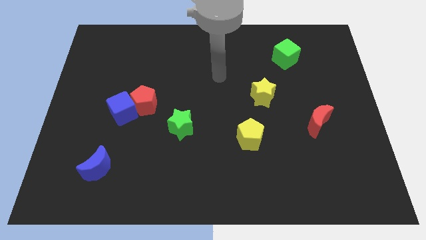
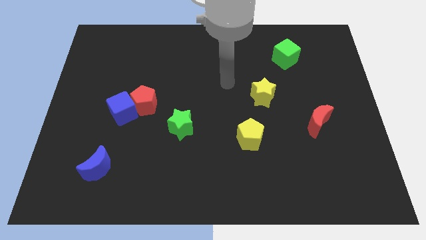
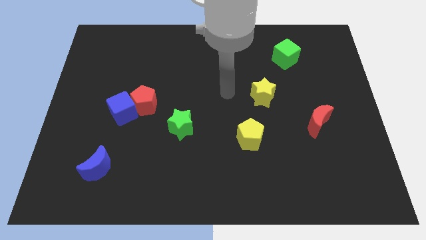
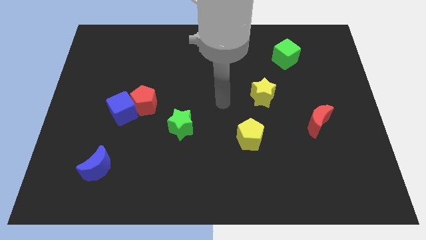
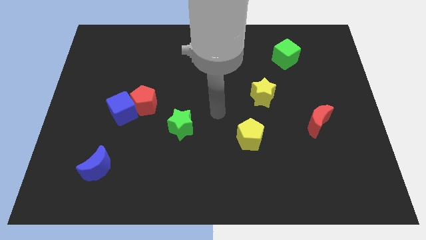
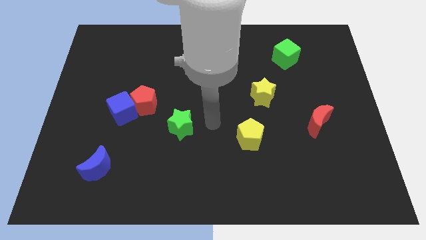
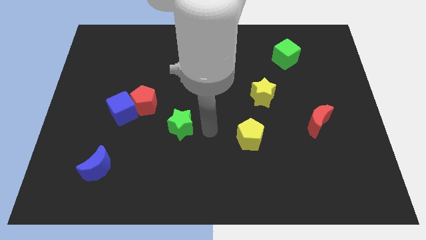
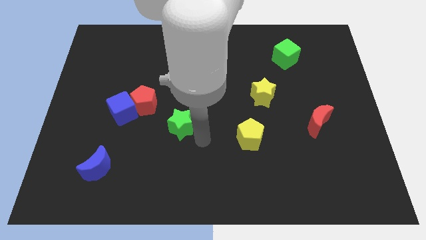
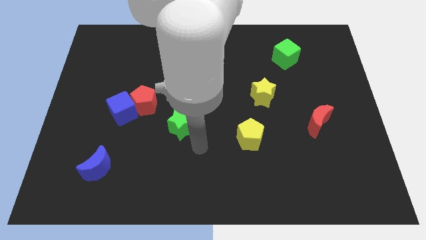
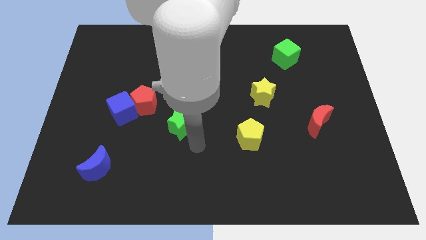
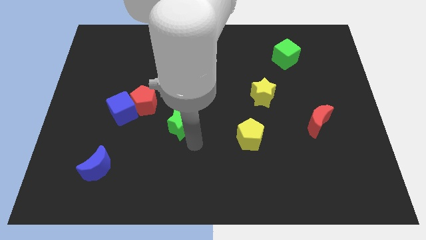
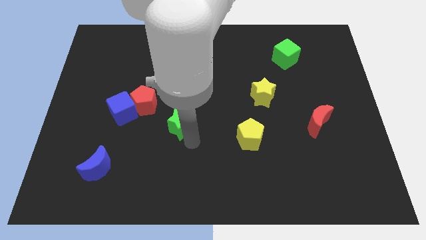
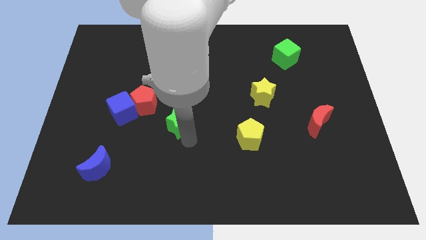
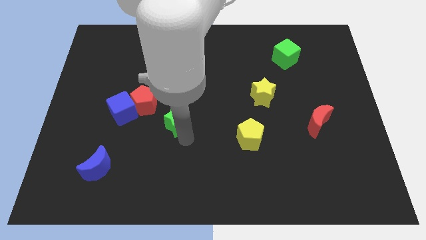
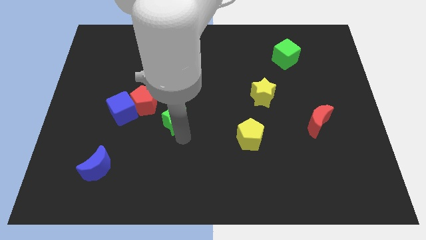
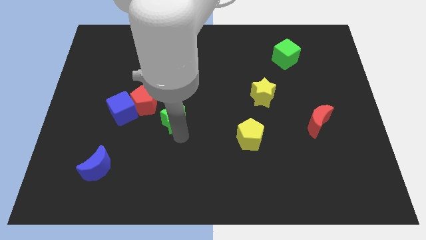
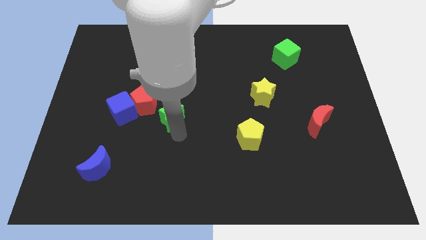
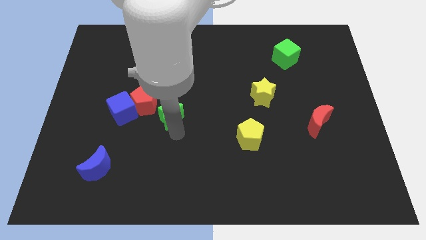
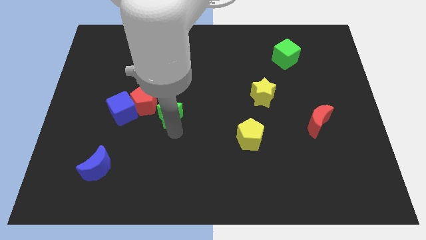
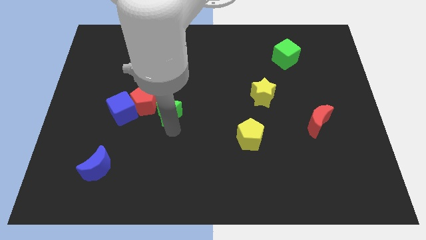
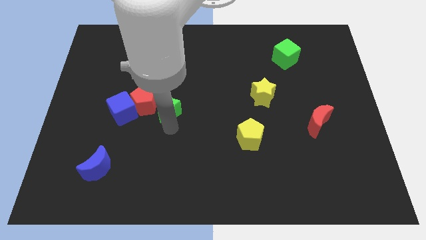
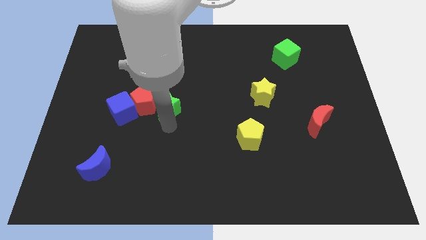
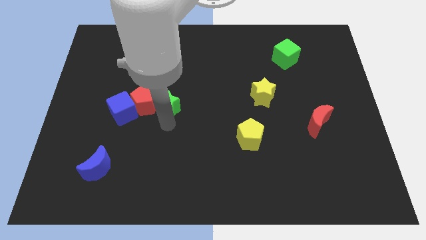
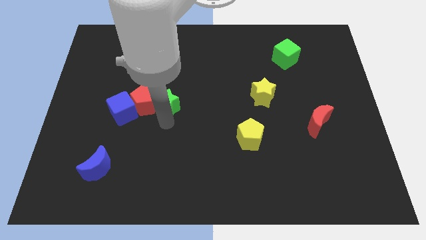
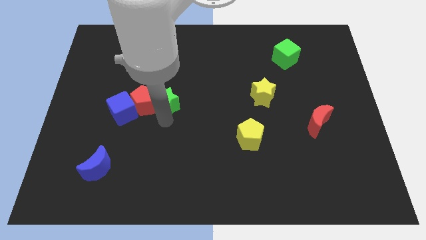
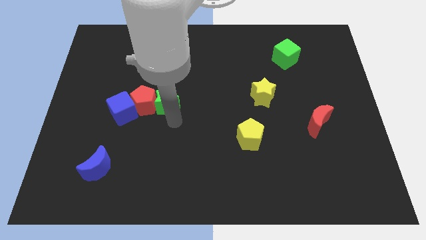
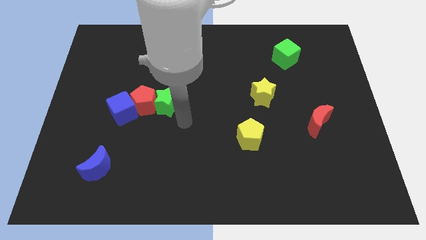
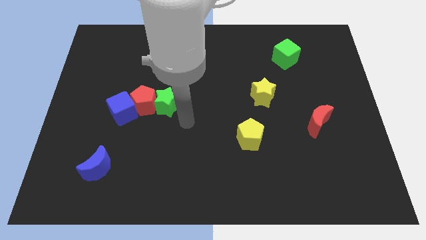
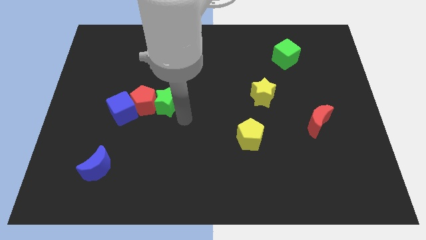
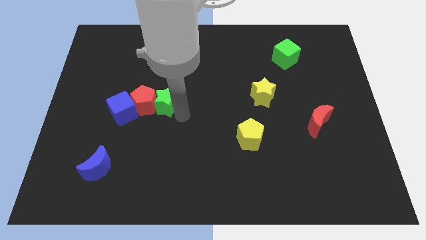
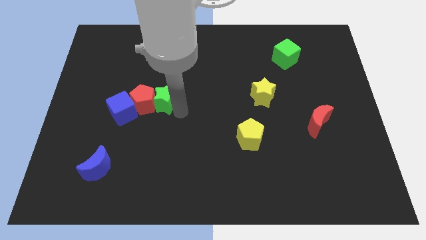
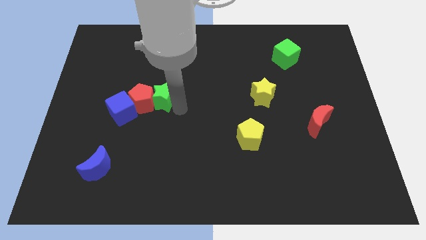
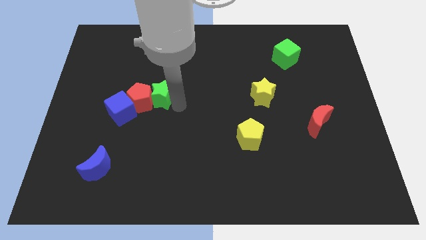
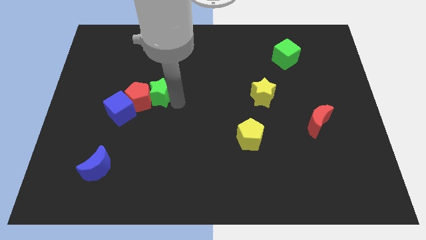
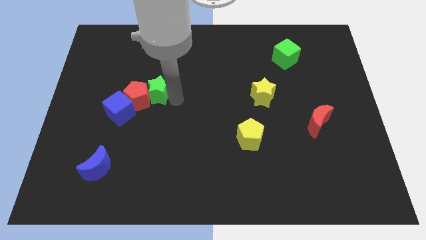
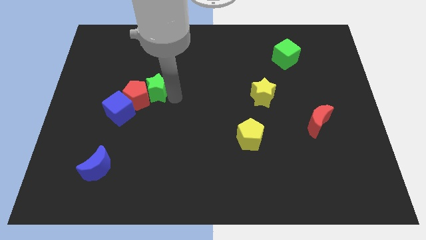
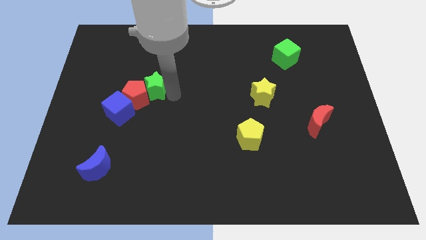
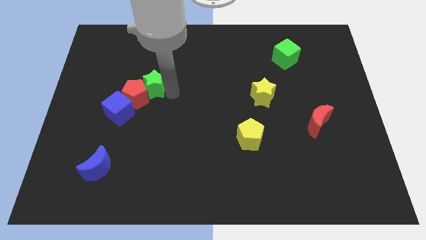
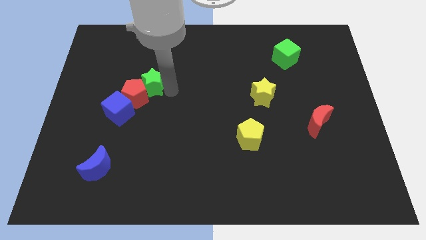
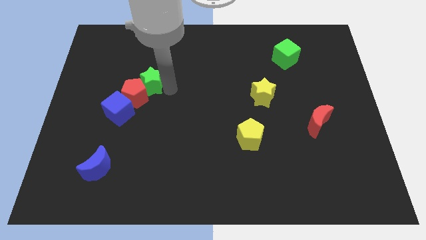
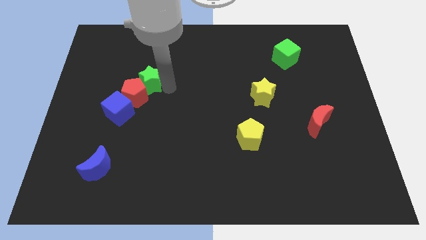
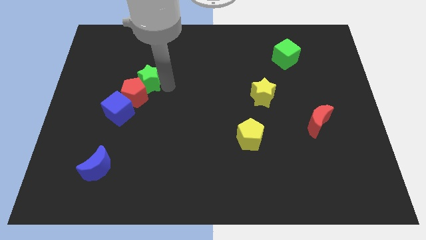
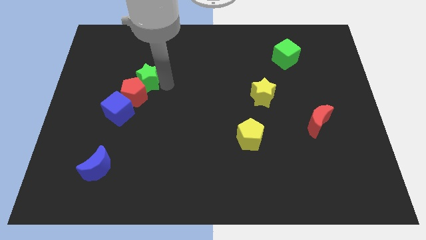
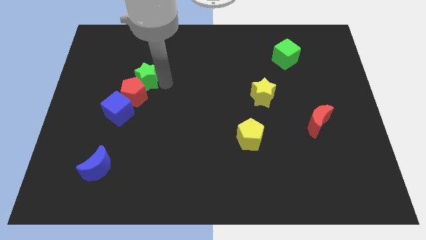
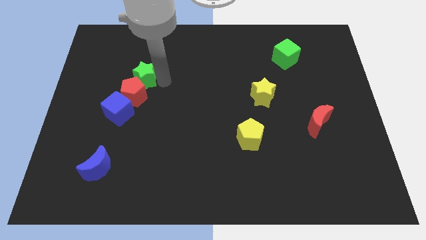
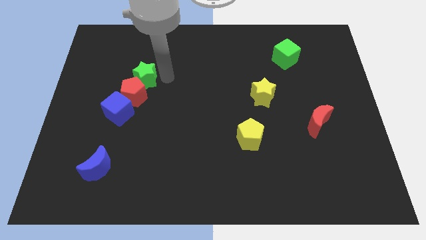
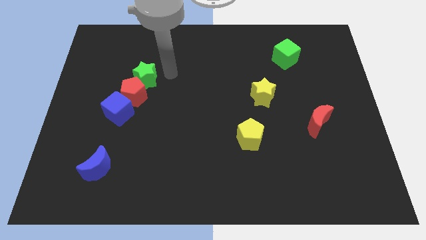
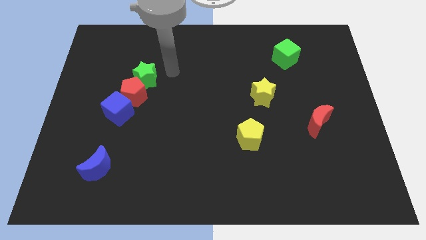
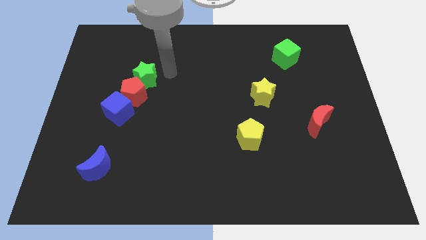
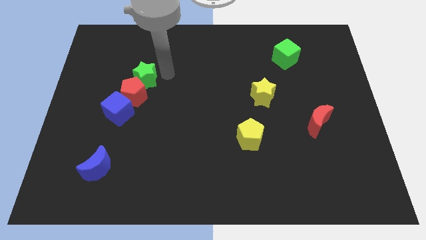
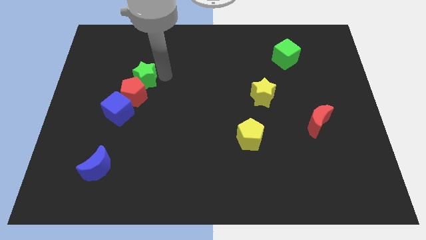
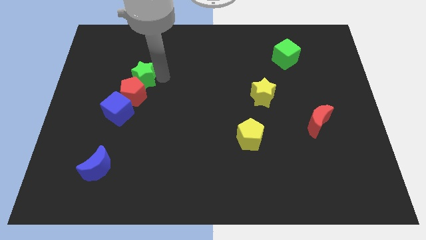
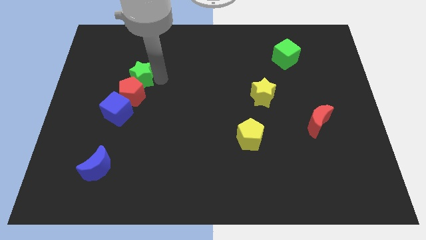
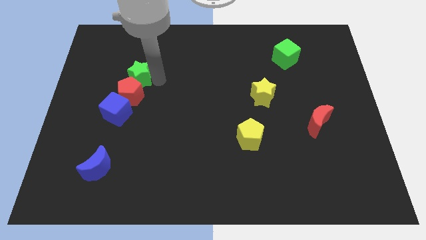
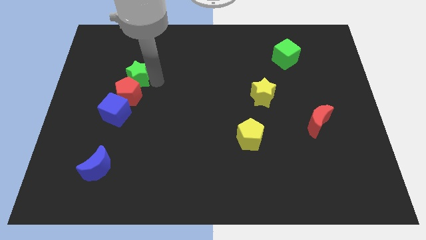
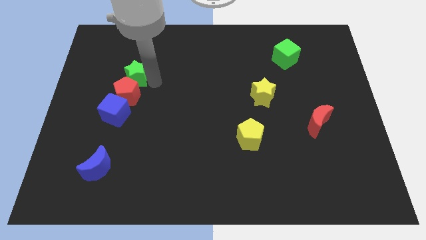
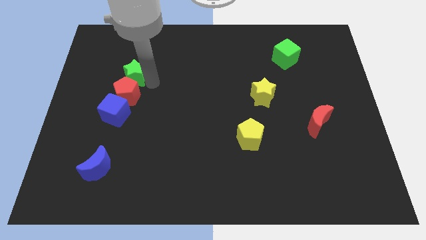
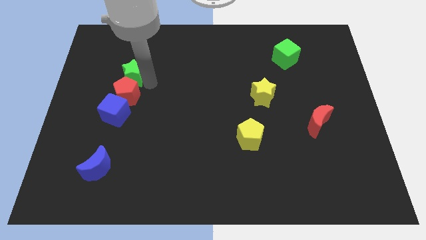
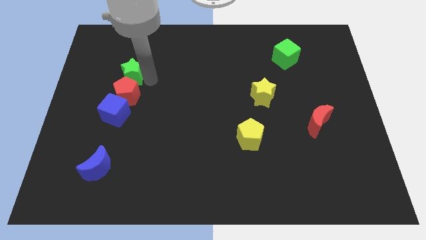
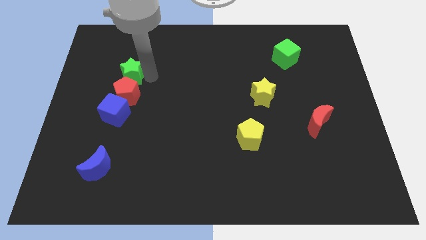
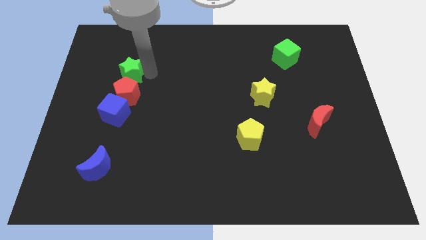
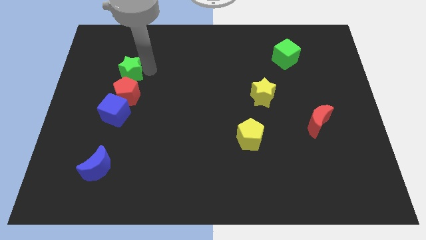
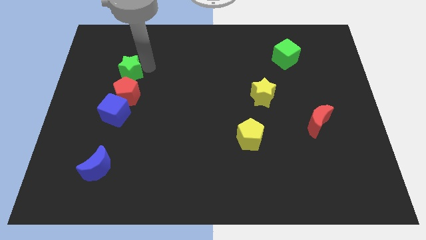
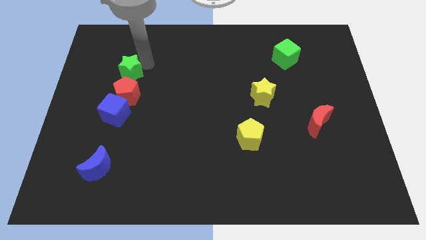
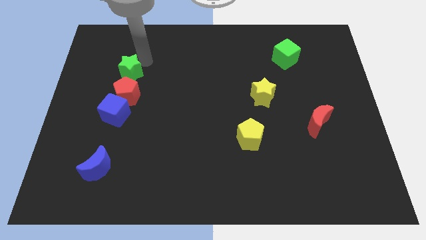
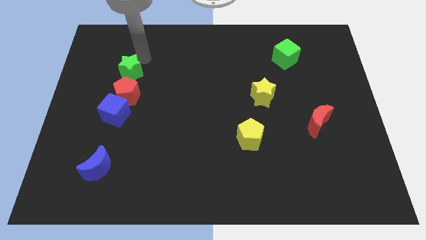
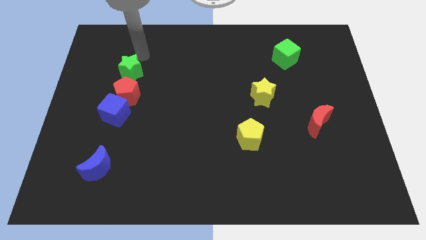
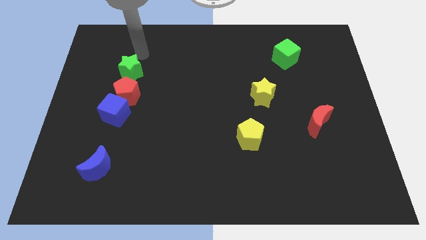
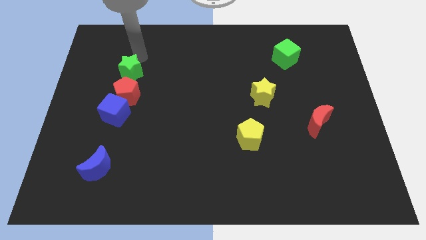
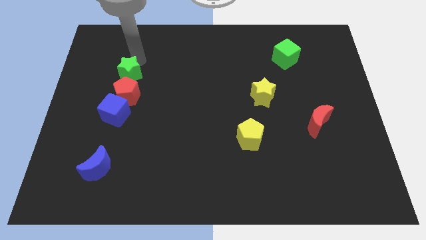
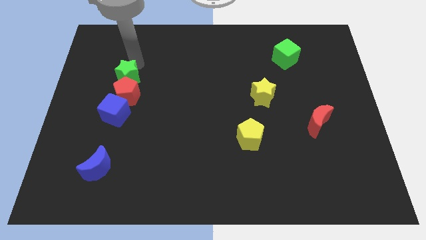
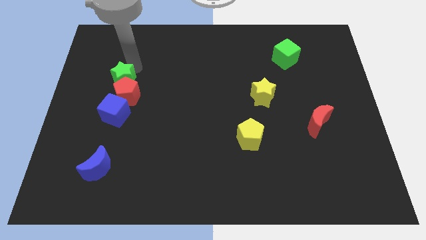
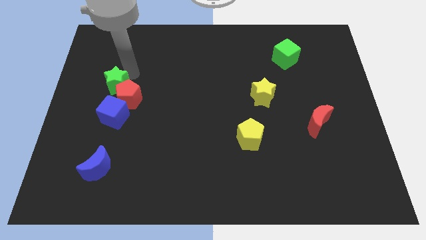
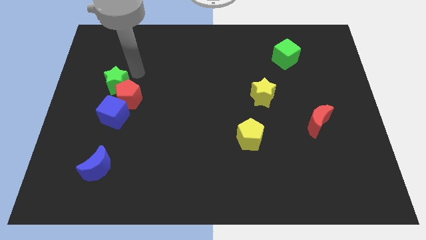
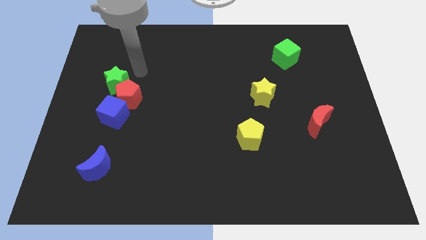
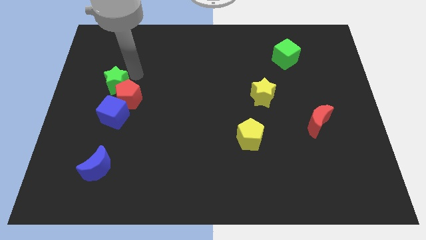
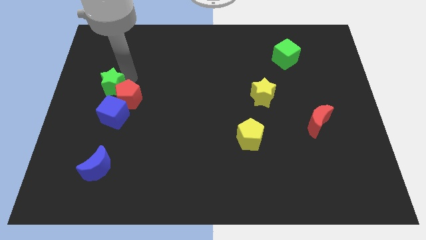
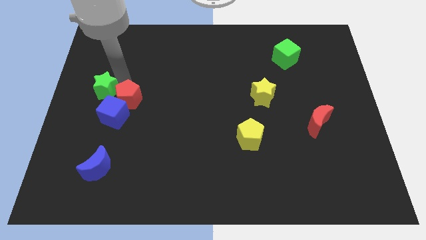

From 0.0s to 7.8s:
slide the green star to the top left side of the blue cube

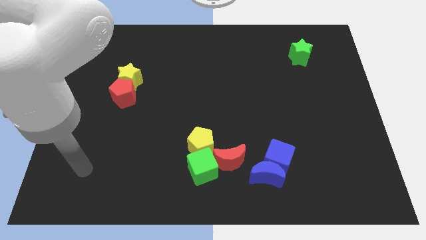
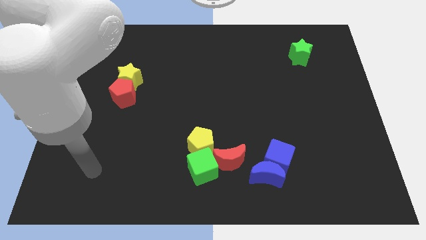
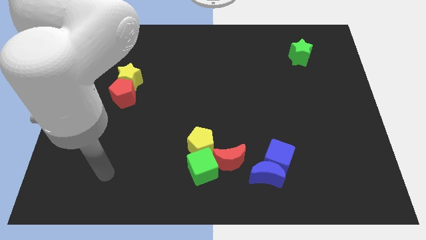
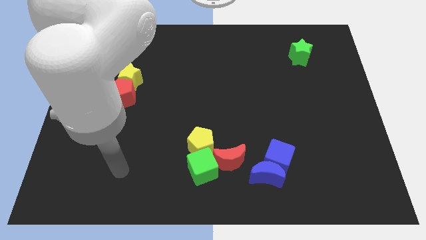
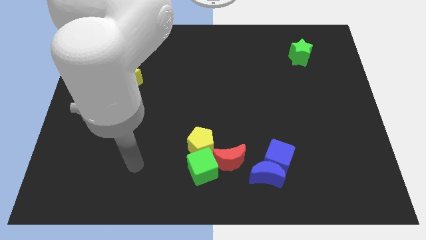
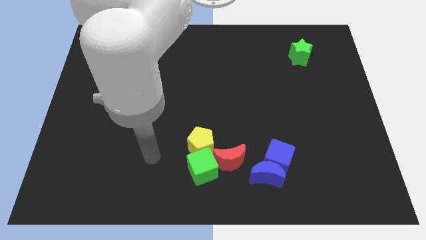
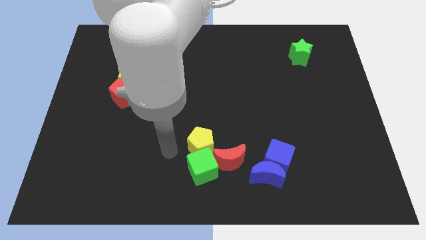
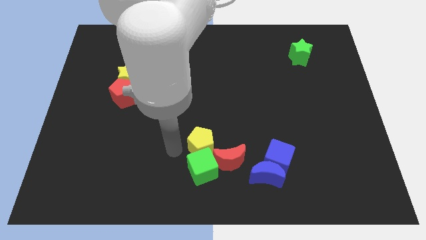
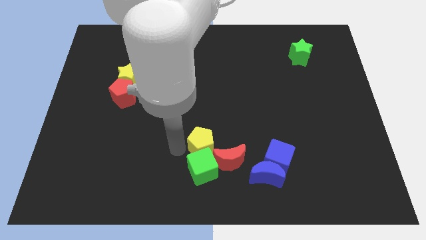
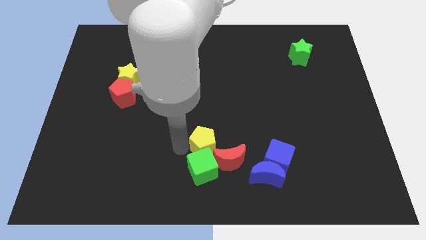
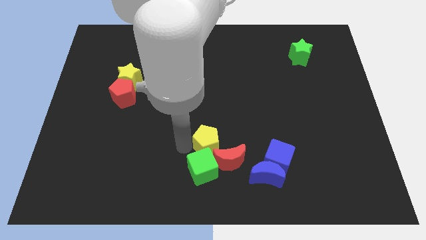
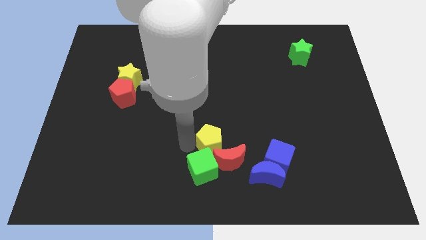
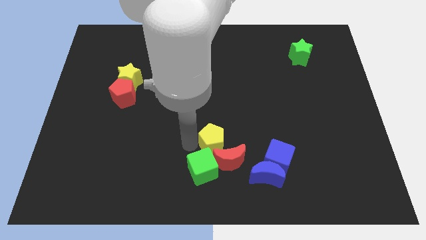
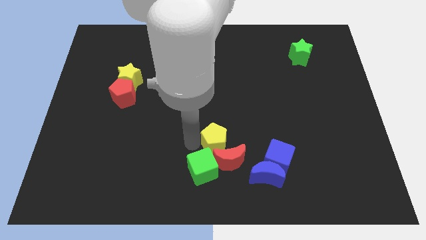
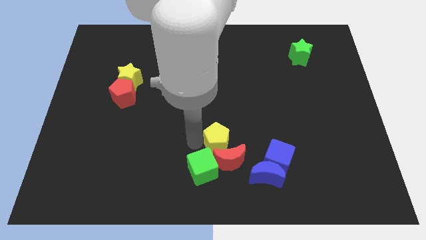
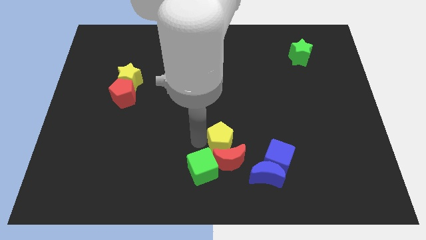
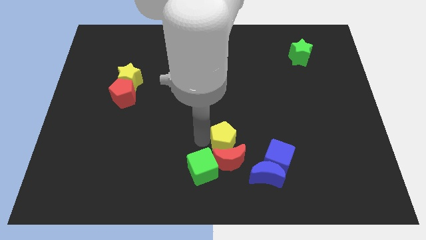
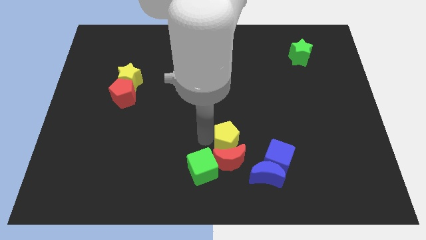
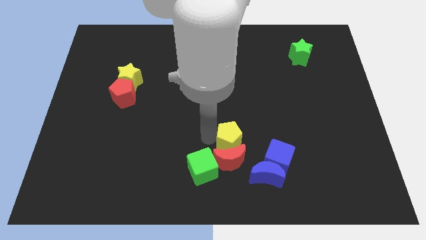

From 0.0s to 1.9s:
push the yellow pentagon to the top left side of the blue cube
